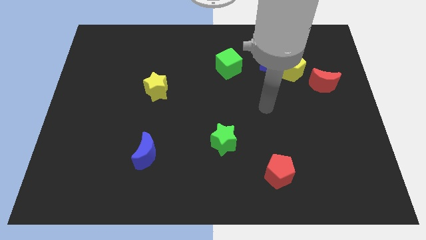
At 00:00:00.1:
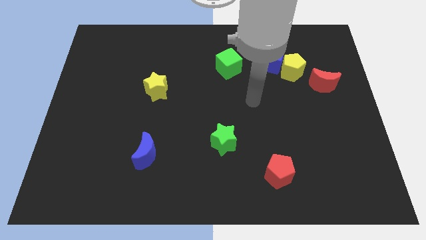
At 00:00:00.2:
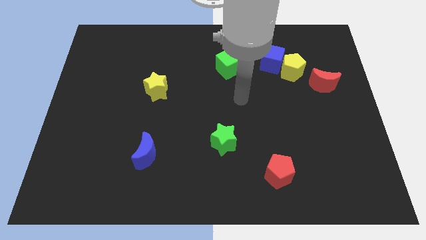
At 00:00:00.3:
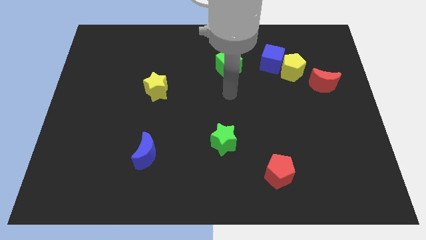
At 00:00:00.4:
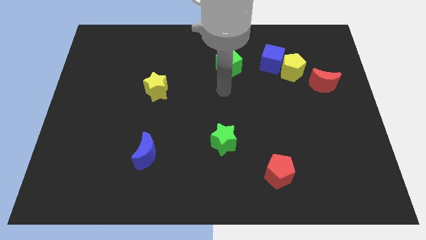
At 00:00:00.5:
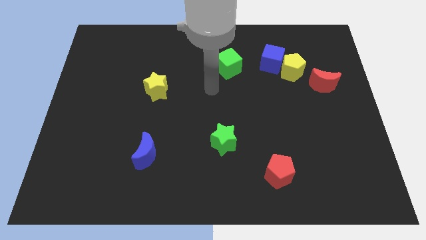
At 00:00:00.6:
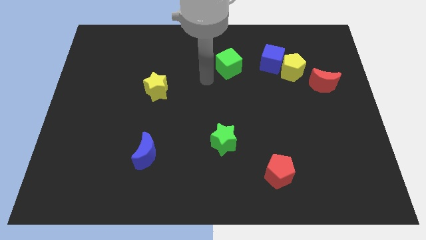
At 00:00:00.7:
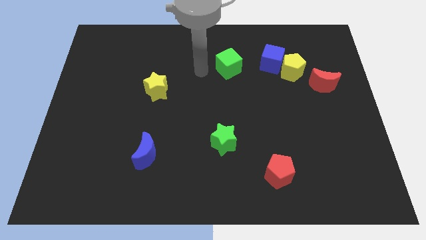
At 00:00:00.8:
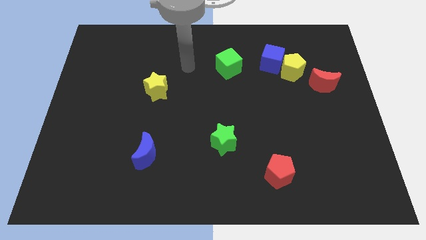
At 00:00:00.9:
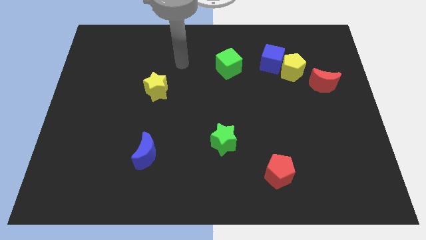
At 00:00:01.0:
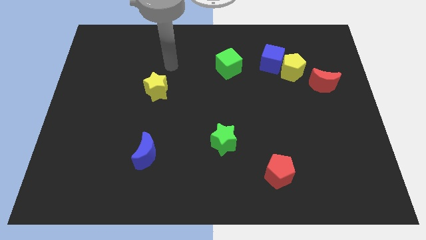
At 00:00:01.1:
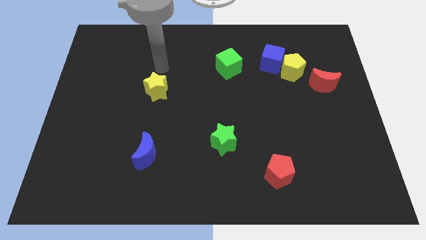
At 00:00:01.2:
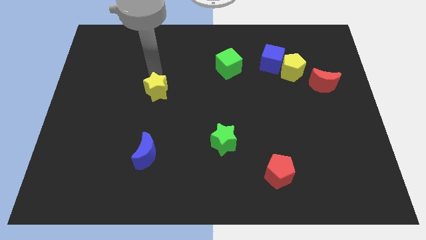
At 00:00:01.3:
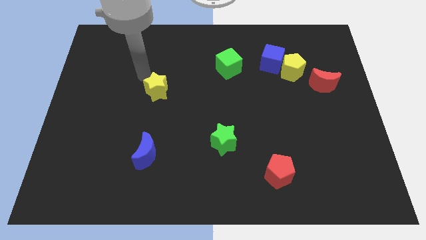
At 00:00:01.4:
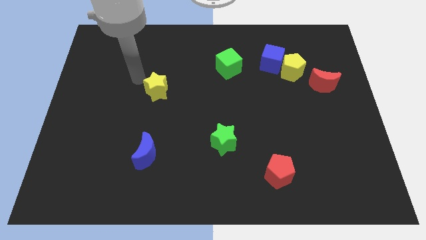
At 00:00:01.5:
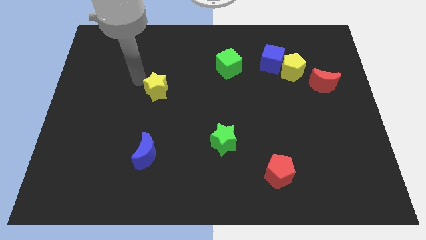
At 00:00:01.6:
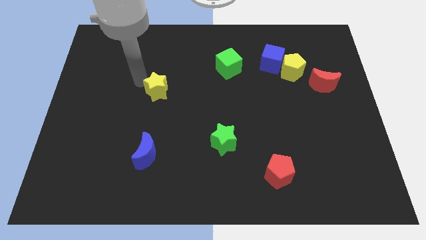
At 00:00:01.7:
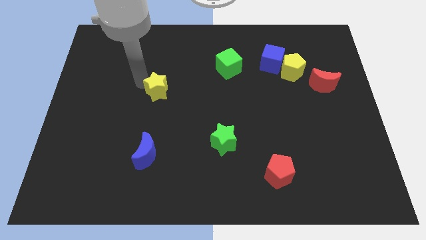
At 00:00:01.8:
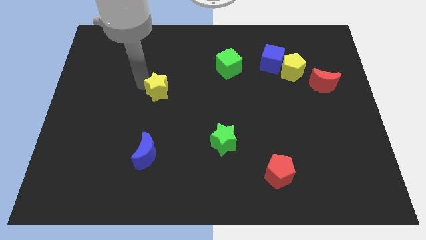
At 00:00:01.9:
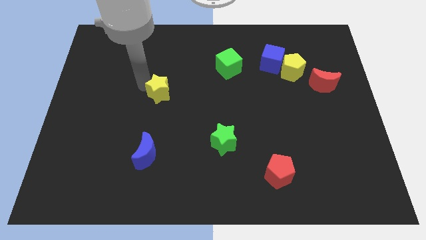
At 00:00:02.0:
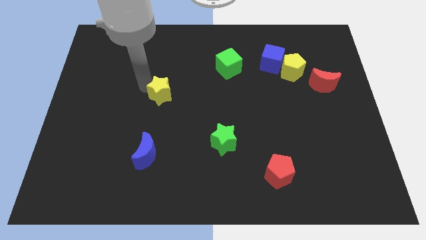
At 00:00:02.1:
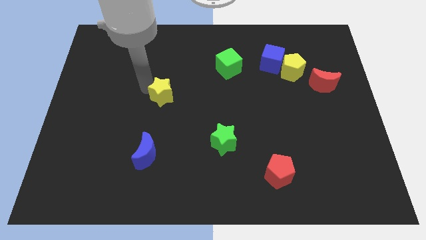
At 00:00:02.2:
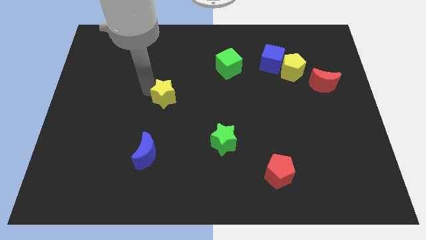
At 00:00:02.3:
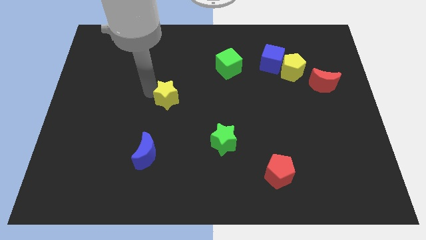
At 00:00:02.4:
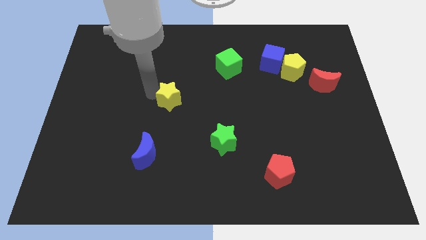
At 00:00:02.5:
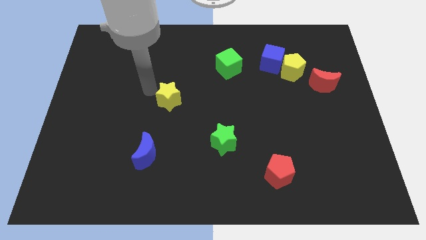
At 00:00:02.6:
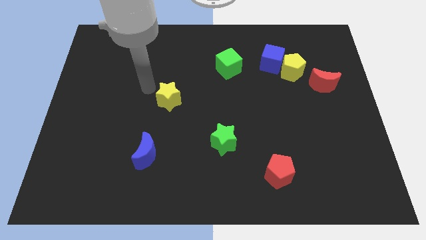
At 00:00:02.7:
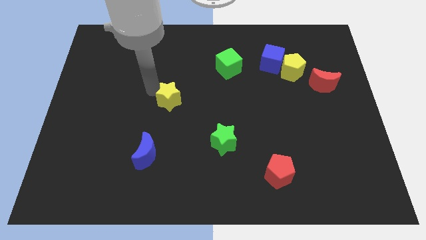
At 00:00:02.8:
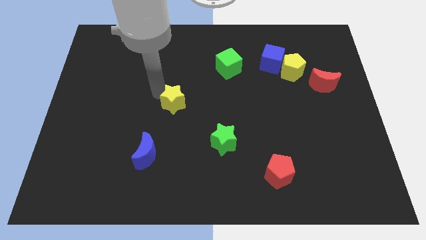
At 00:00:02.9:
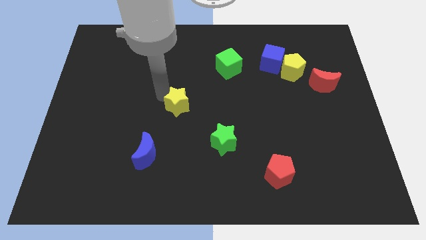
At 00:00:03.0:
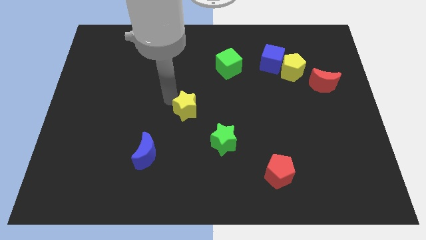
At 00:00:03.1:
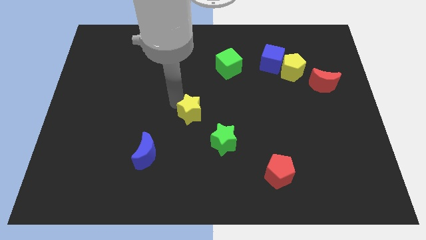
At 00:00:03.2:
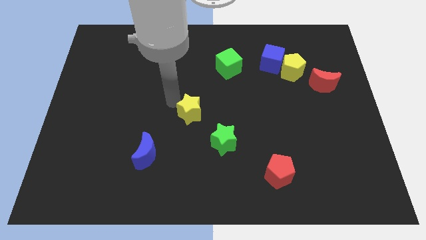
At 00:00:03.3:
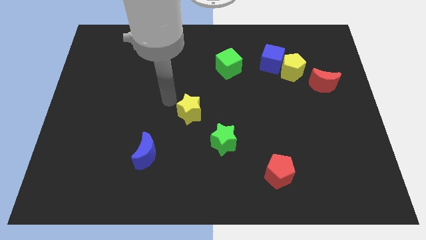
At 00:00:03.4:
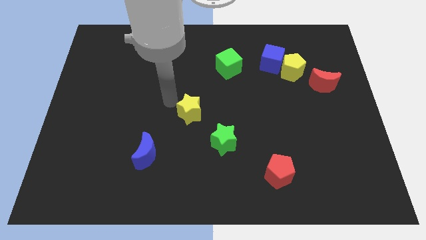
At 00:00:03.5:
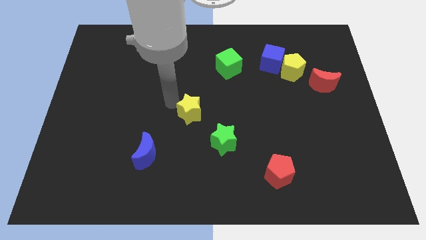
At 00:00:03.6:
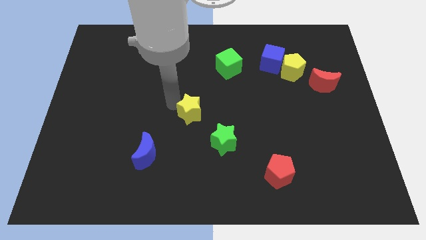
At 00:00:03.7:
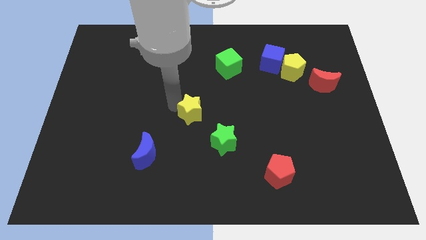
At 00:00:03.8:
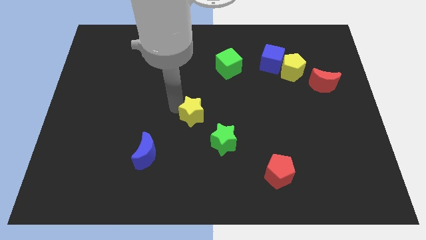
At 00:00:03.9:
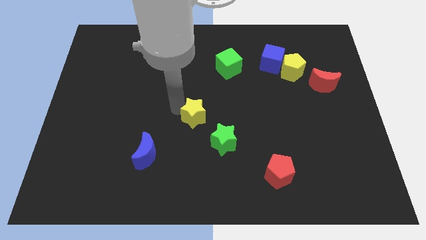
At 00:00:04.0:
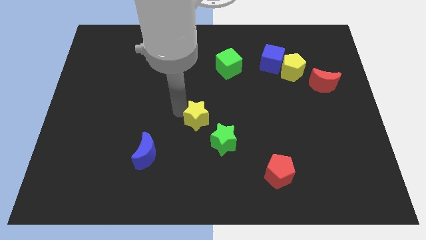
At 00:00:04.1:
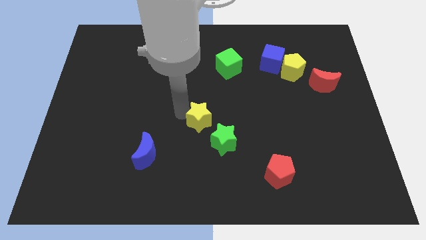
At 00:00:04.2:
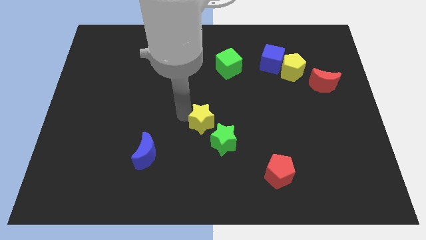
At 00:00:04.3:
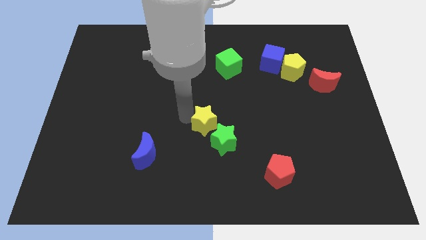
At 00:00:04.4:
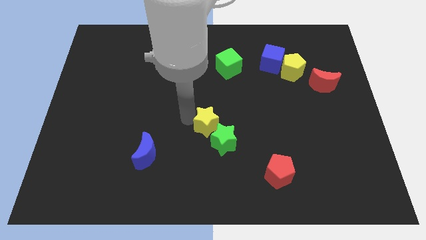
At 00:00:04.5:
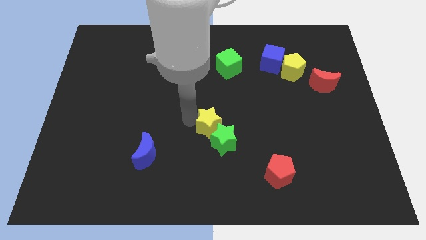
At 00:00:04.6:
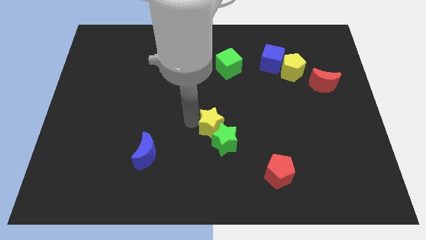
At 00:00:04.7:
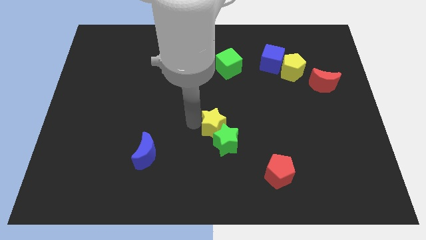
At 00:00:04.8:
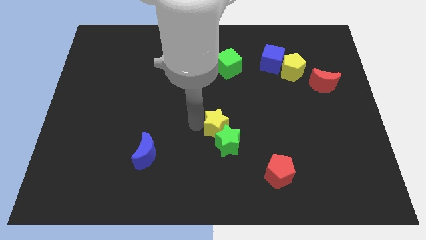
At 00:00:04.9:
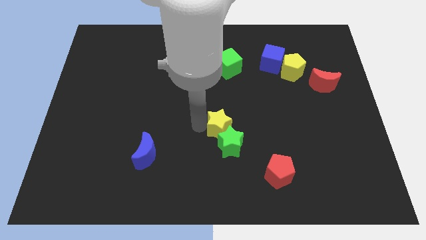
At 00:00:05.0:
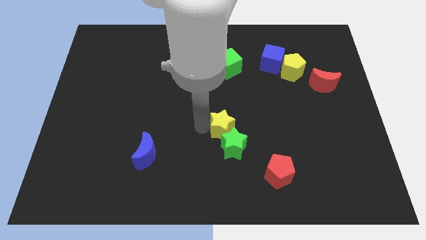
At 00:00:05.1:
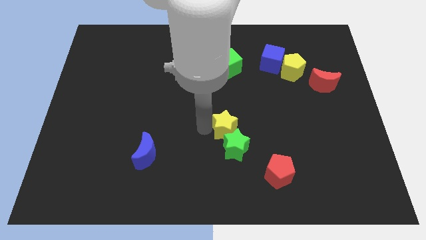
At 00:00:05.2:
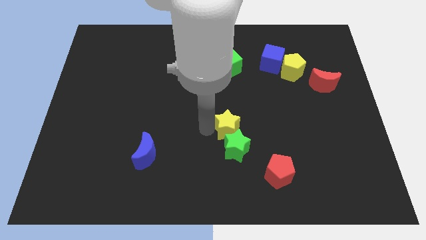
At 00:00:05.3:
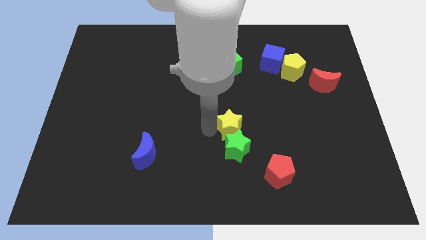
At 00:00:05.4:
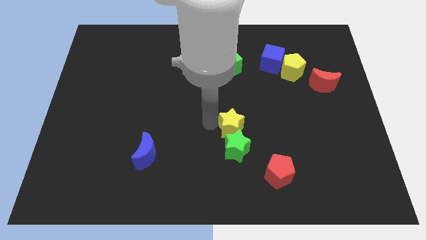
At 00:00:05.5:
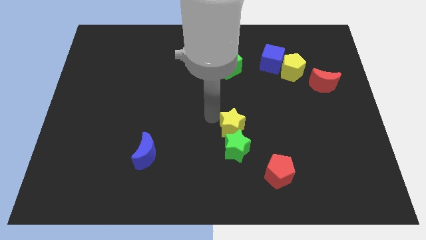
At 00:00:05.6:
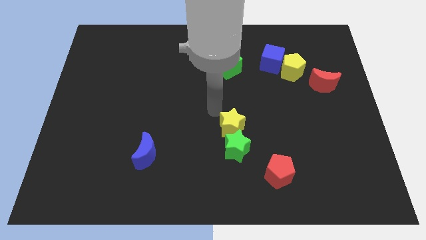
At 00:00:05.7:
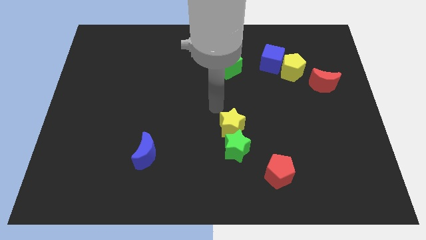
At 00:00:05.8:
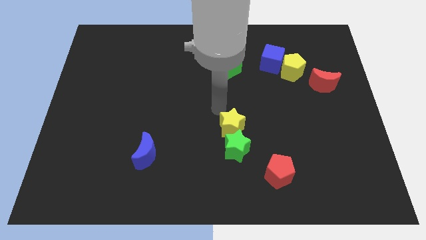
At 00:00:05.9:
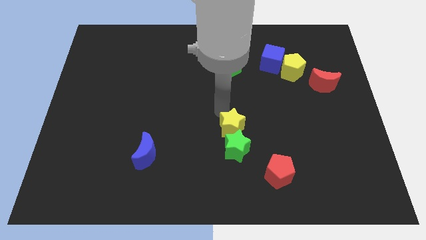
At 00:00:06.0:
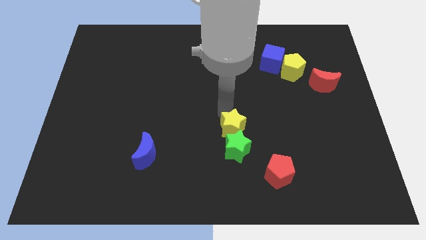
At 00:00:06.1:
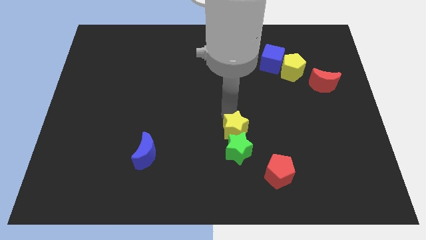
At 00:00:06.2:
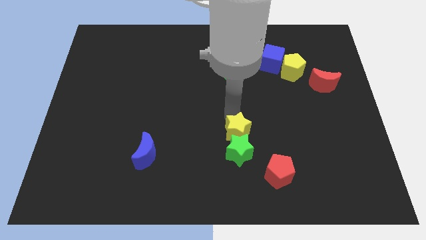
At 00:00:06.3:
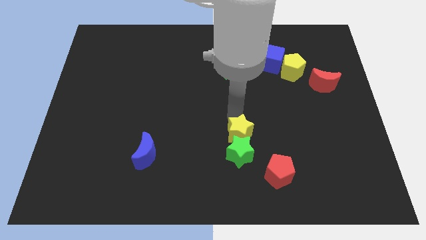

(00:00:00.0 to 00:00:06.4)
put the yellow star diagonally up and to the left of the red pentagon

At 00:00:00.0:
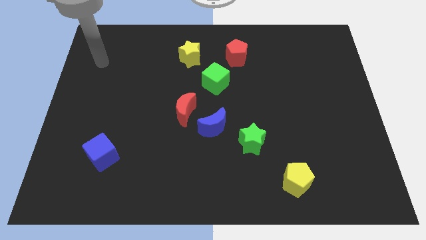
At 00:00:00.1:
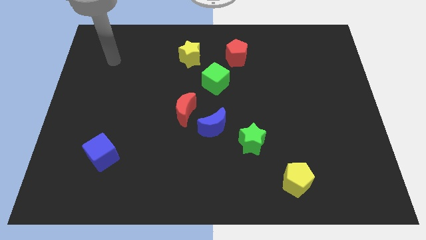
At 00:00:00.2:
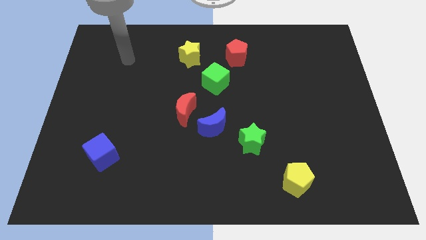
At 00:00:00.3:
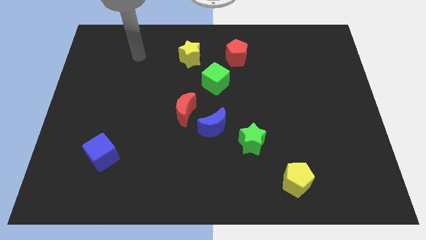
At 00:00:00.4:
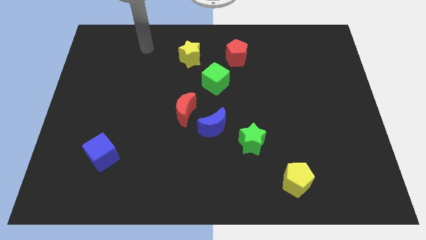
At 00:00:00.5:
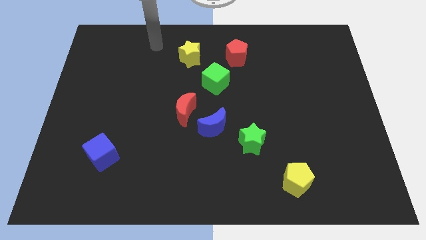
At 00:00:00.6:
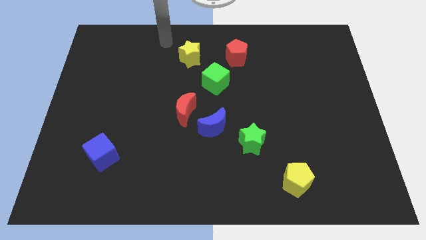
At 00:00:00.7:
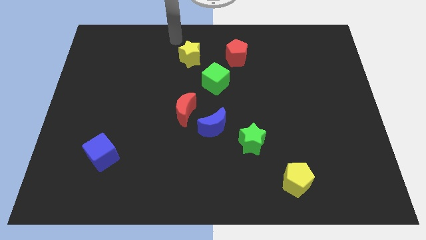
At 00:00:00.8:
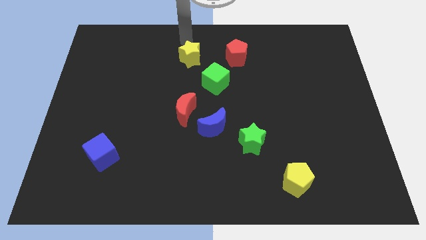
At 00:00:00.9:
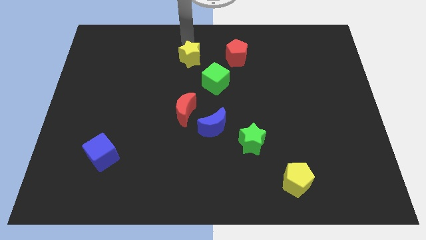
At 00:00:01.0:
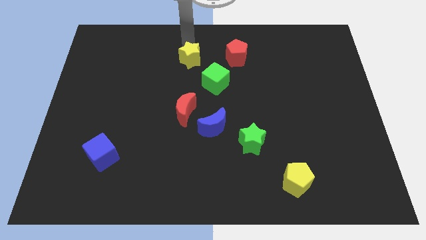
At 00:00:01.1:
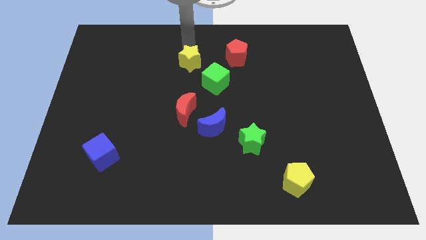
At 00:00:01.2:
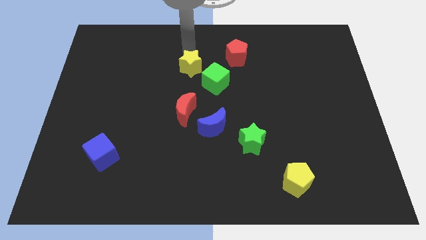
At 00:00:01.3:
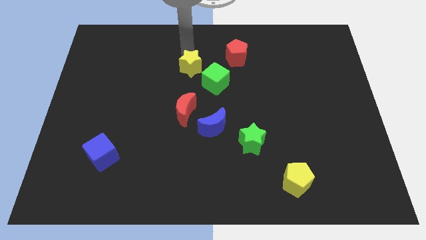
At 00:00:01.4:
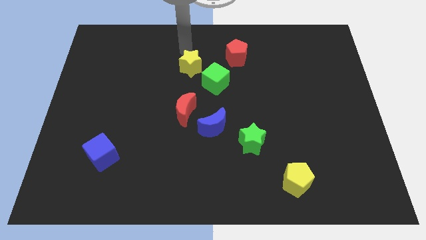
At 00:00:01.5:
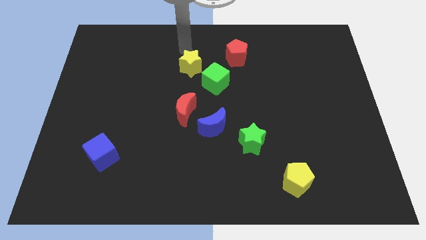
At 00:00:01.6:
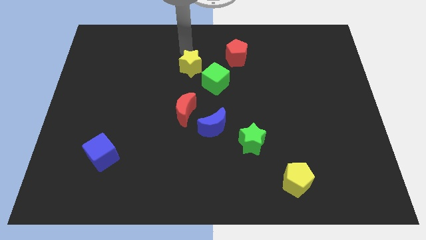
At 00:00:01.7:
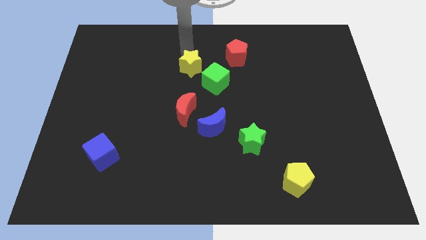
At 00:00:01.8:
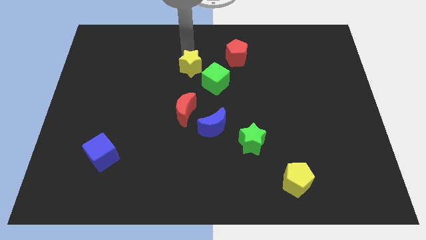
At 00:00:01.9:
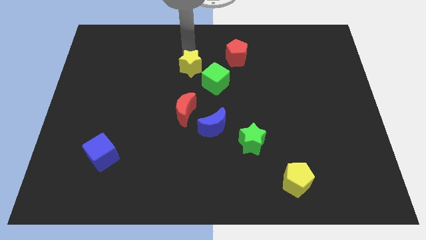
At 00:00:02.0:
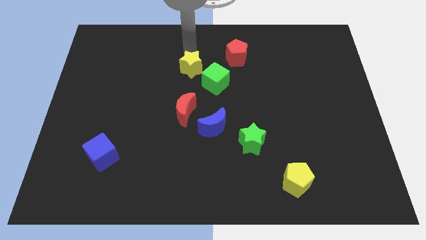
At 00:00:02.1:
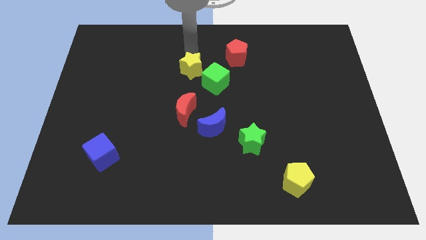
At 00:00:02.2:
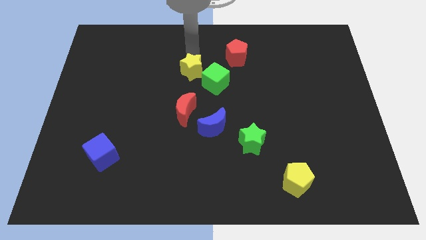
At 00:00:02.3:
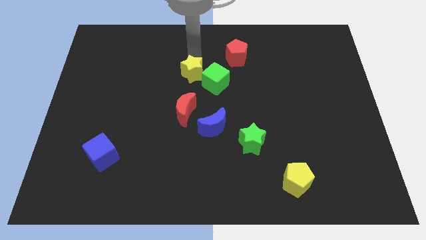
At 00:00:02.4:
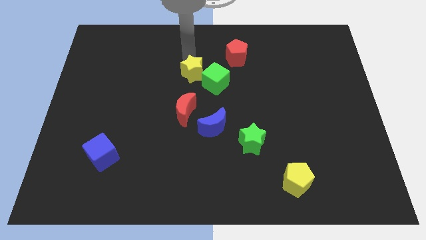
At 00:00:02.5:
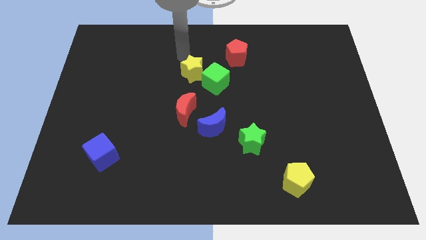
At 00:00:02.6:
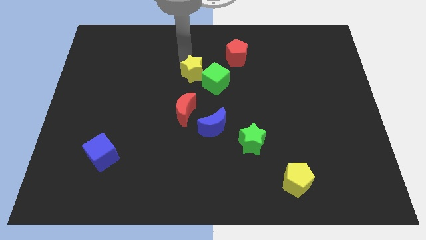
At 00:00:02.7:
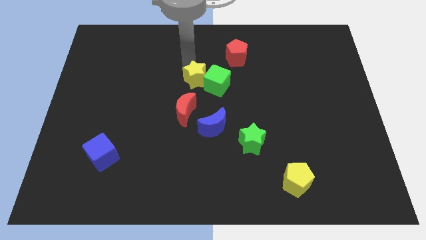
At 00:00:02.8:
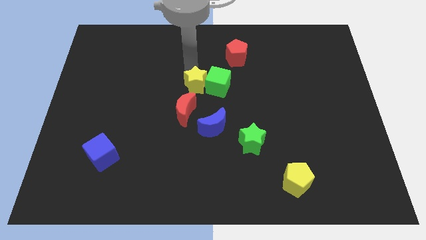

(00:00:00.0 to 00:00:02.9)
slide the yellow star to the top right of the red moon
